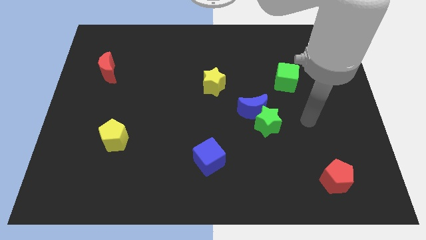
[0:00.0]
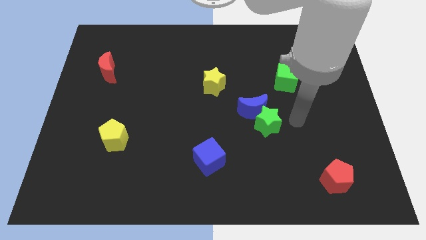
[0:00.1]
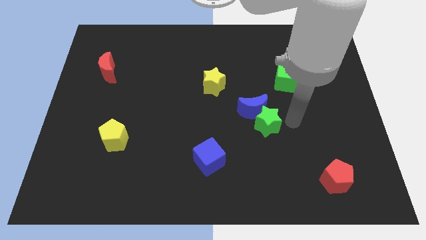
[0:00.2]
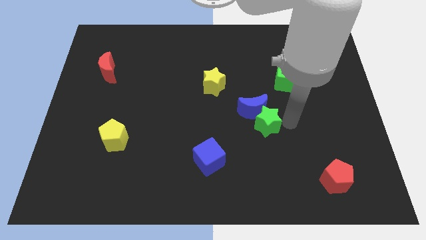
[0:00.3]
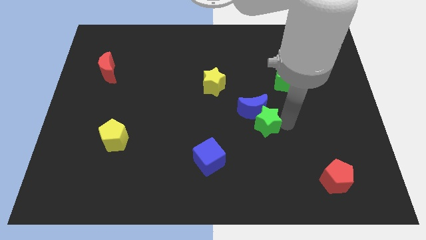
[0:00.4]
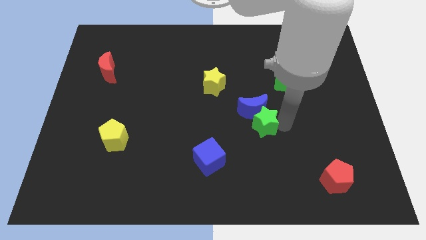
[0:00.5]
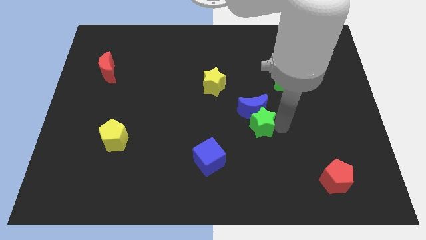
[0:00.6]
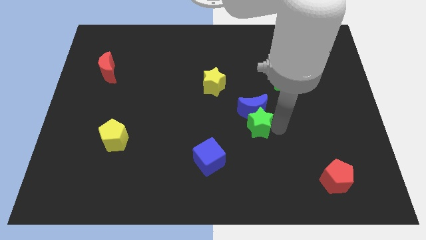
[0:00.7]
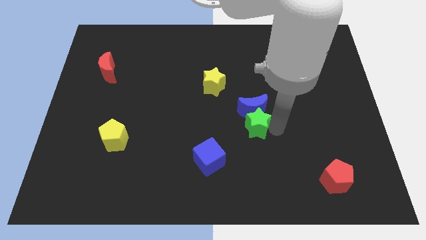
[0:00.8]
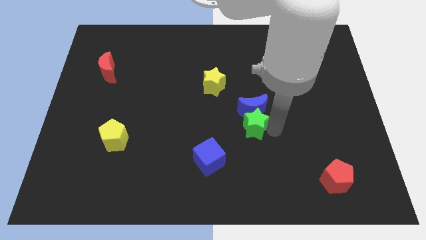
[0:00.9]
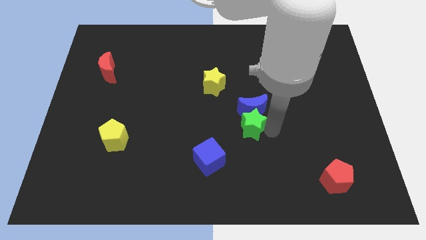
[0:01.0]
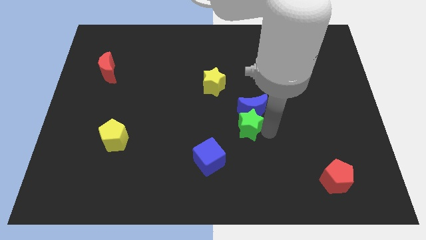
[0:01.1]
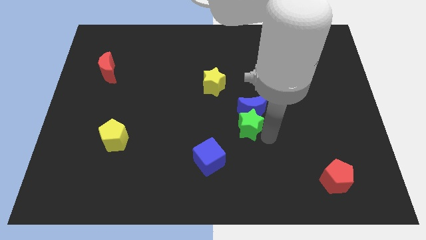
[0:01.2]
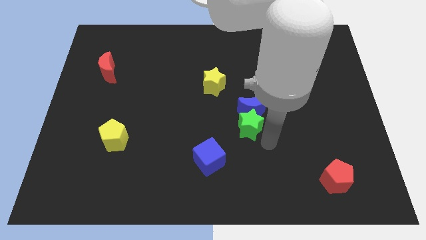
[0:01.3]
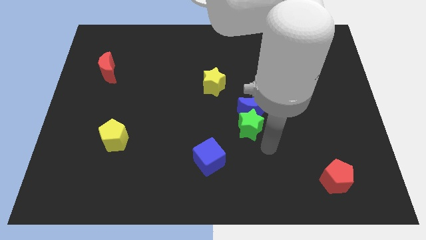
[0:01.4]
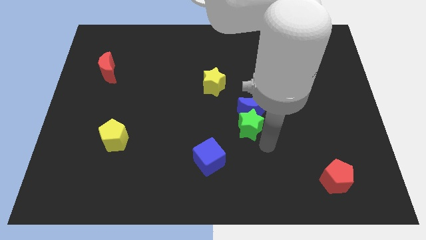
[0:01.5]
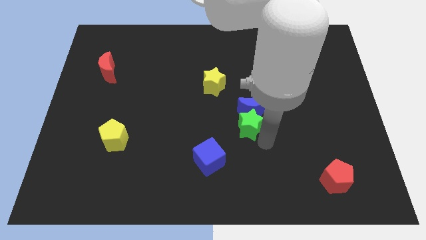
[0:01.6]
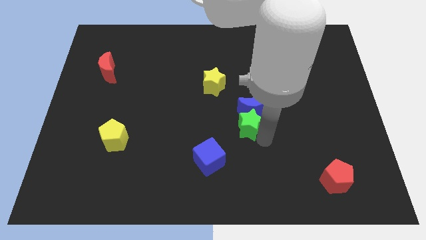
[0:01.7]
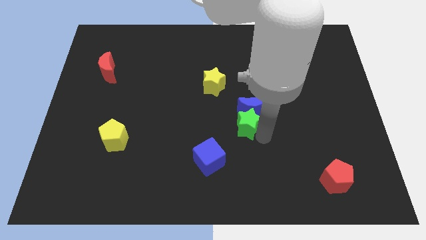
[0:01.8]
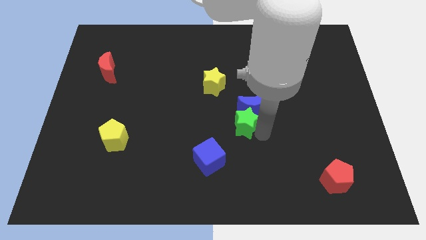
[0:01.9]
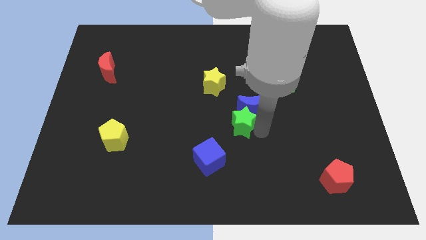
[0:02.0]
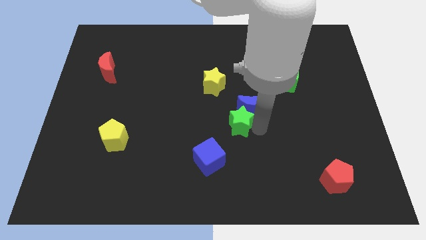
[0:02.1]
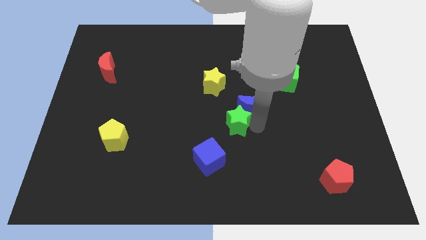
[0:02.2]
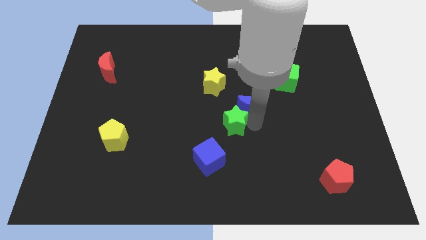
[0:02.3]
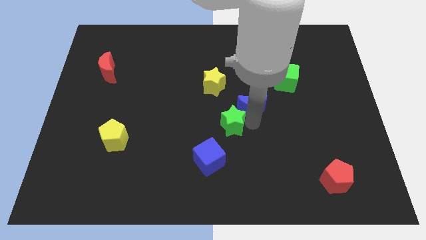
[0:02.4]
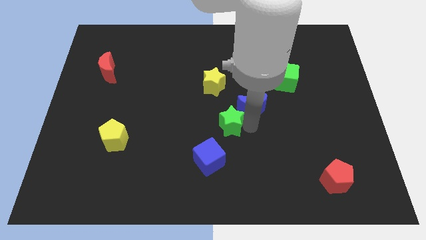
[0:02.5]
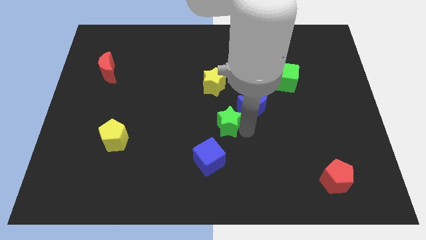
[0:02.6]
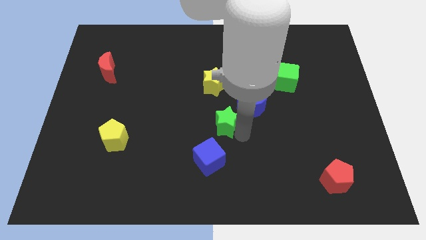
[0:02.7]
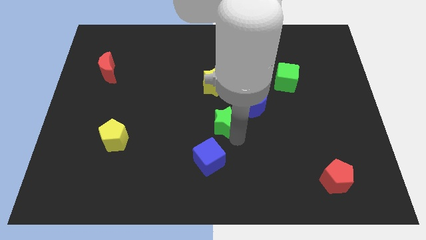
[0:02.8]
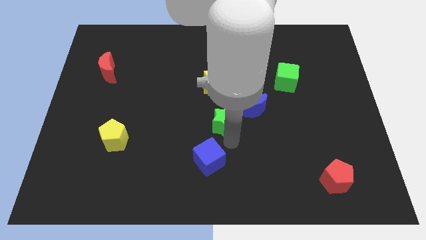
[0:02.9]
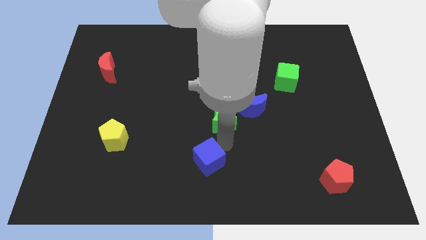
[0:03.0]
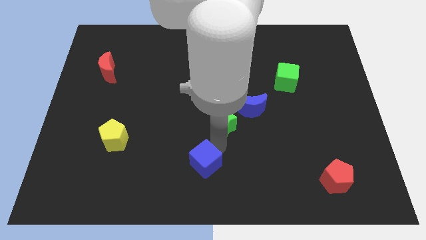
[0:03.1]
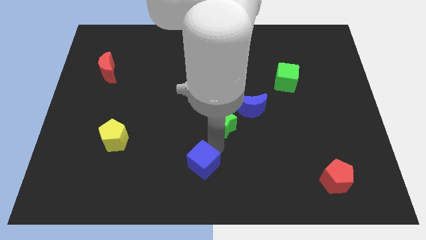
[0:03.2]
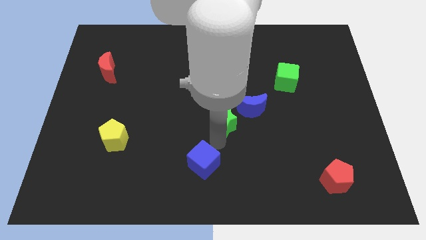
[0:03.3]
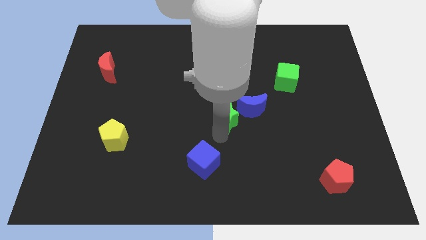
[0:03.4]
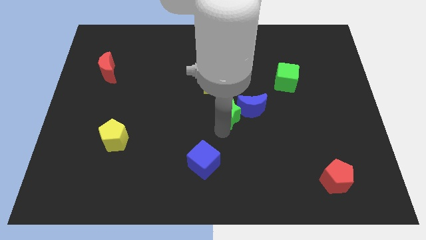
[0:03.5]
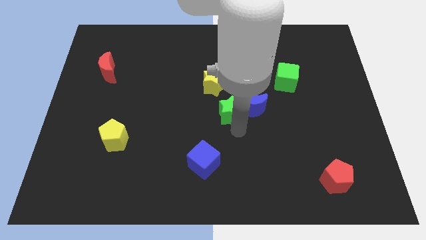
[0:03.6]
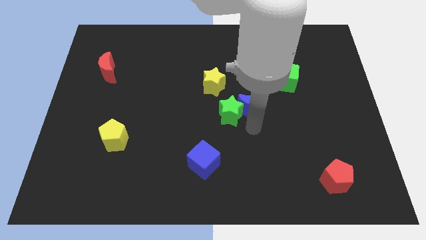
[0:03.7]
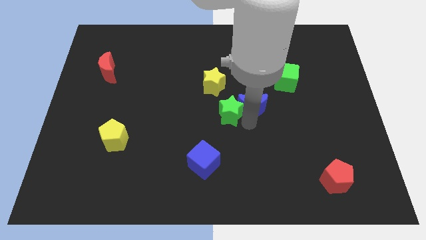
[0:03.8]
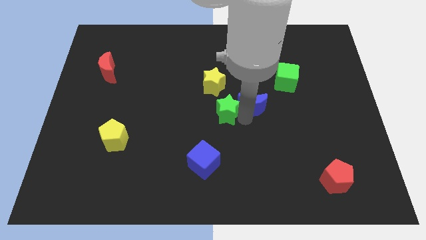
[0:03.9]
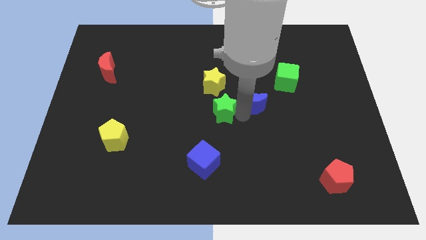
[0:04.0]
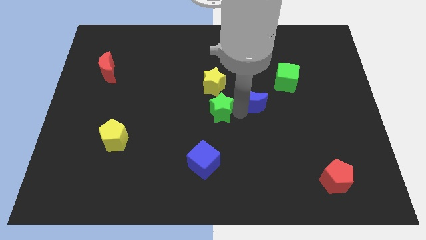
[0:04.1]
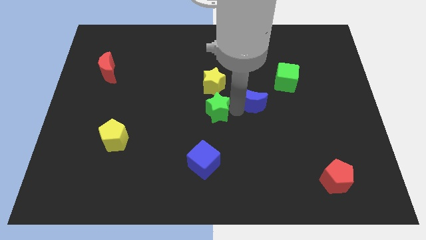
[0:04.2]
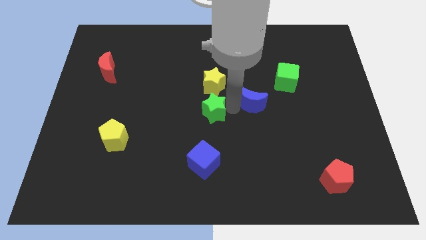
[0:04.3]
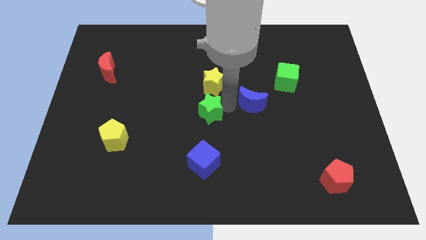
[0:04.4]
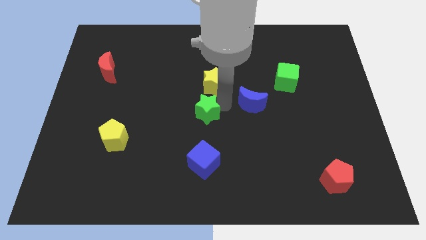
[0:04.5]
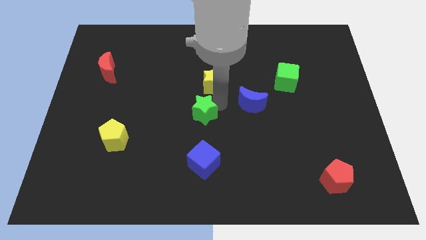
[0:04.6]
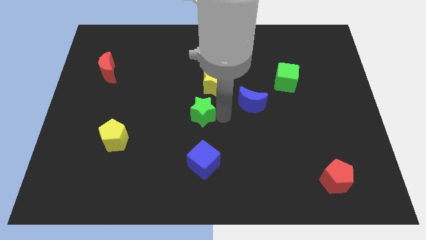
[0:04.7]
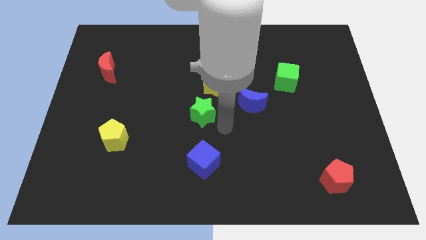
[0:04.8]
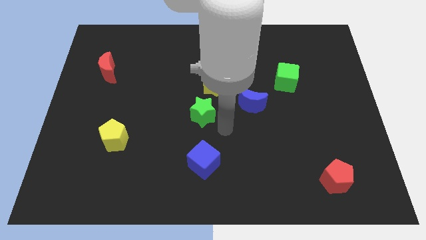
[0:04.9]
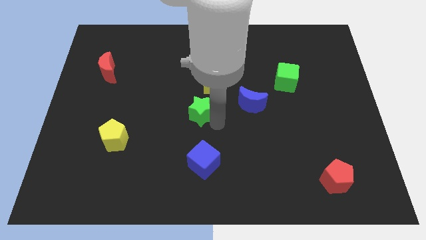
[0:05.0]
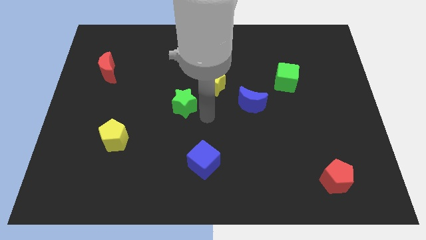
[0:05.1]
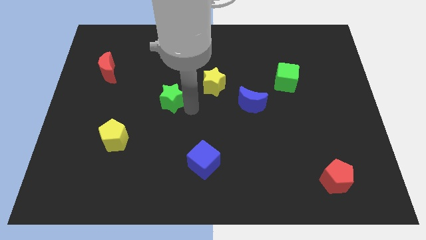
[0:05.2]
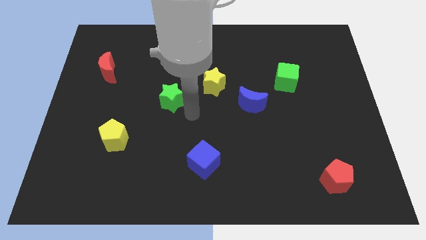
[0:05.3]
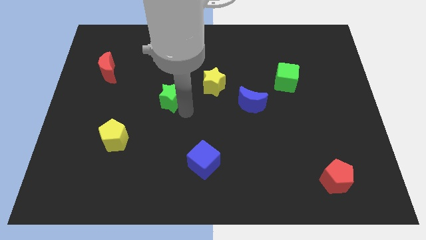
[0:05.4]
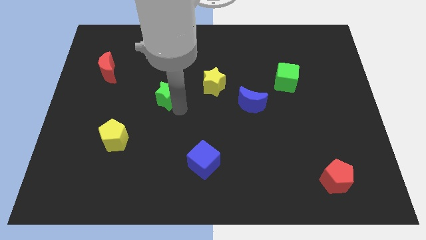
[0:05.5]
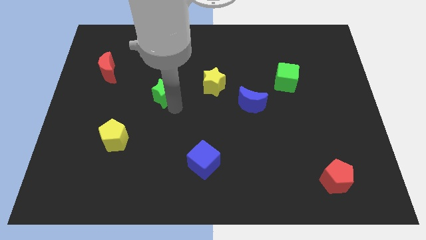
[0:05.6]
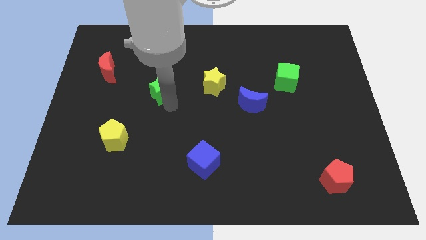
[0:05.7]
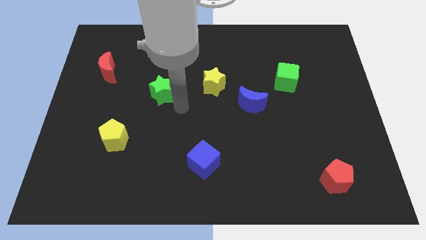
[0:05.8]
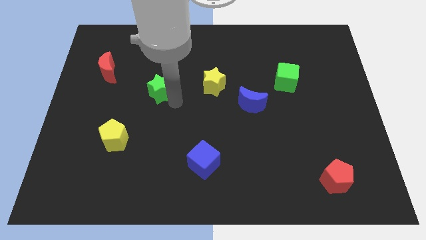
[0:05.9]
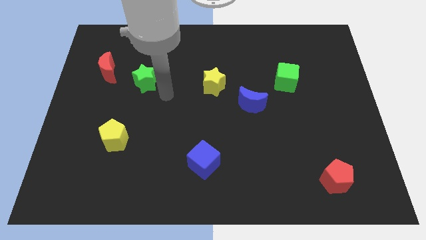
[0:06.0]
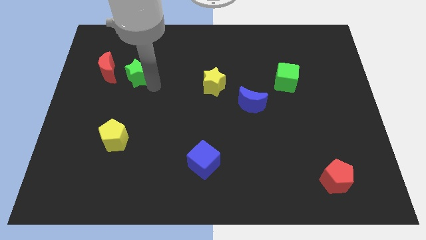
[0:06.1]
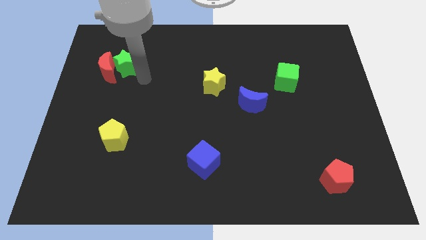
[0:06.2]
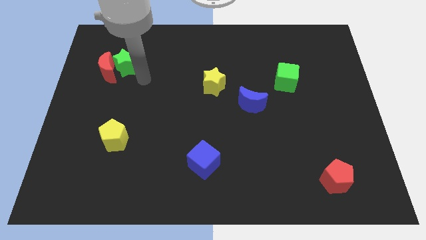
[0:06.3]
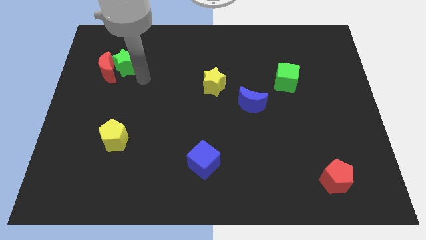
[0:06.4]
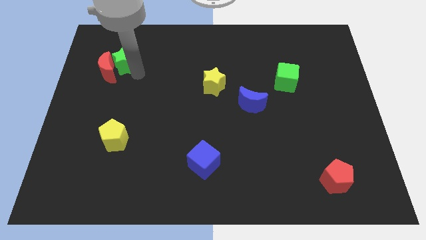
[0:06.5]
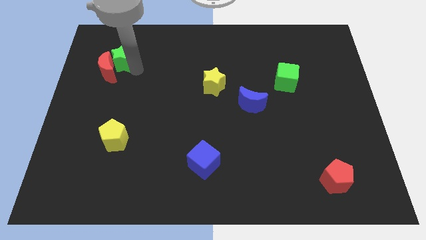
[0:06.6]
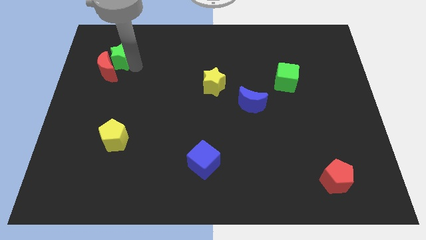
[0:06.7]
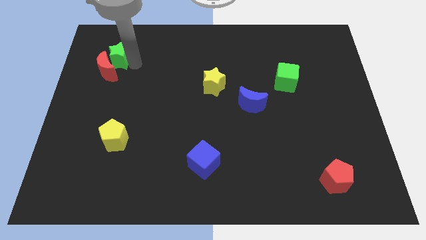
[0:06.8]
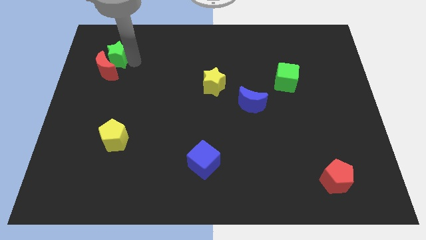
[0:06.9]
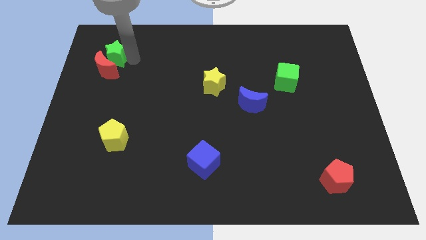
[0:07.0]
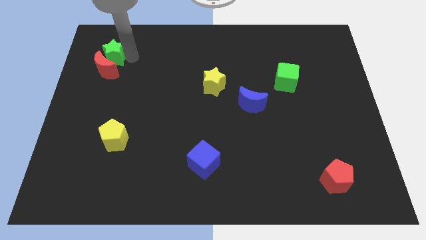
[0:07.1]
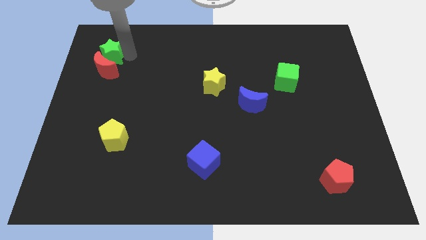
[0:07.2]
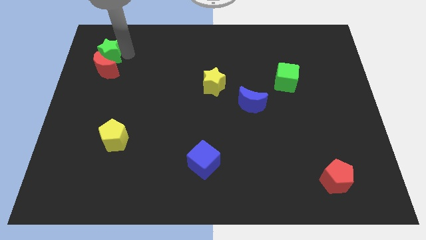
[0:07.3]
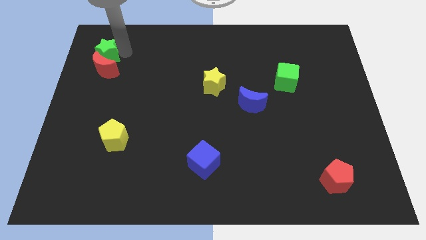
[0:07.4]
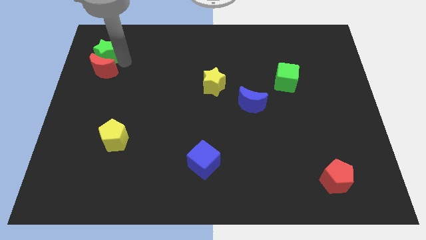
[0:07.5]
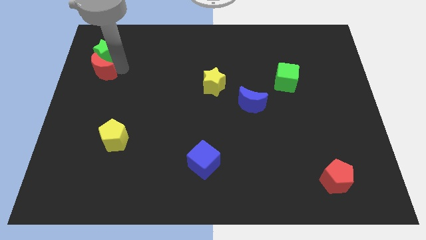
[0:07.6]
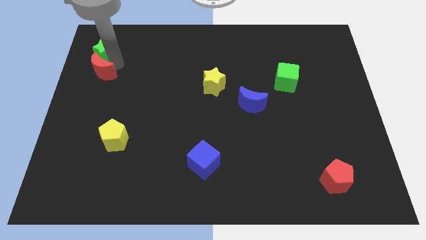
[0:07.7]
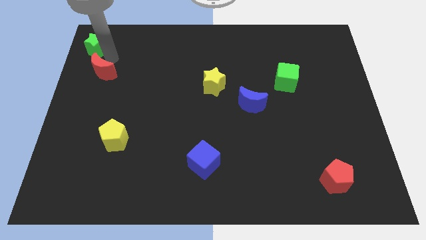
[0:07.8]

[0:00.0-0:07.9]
move the green star to the top left of the board
